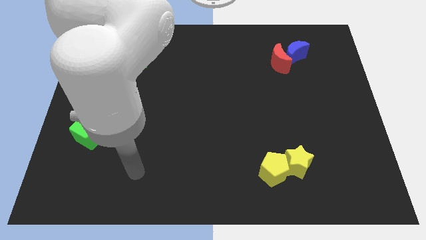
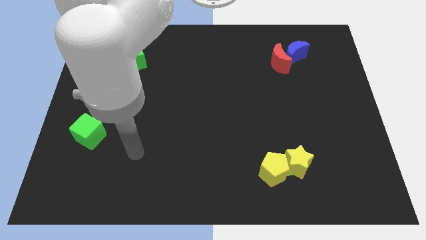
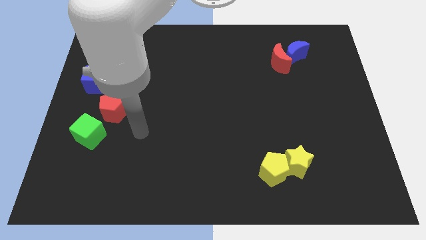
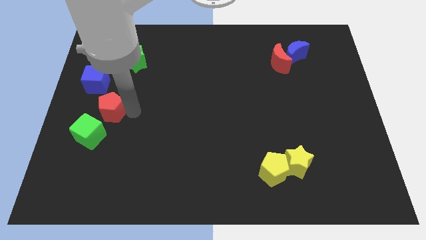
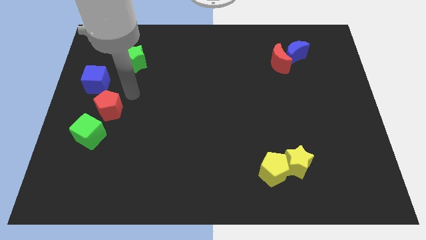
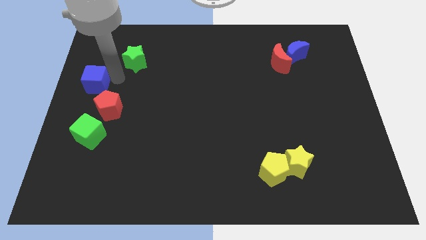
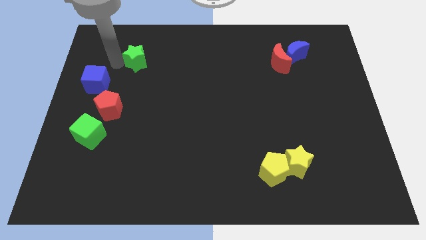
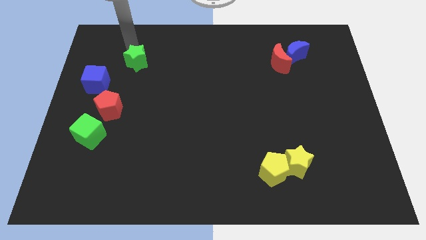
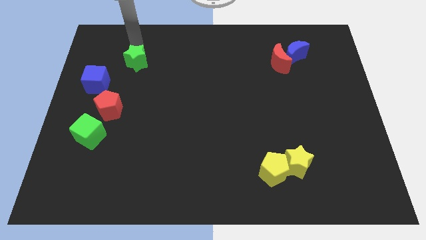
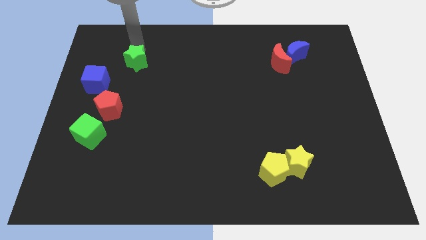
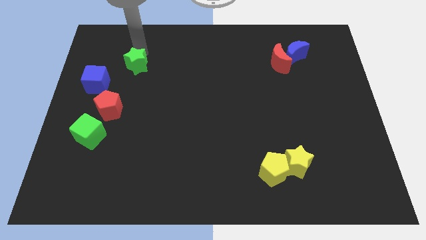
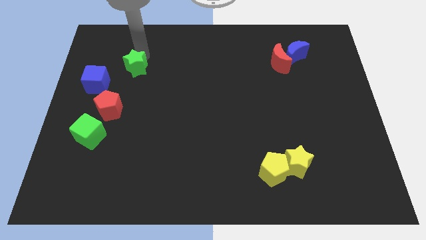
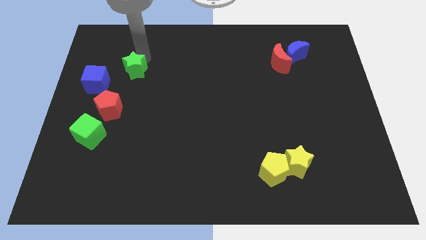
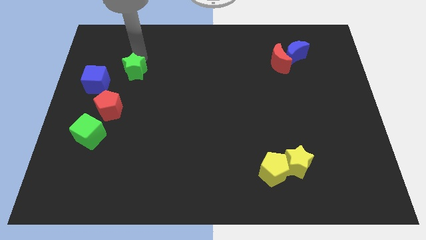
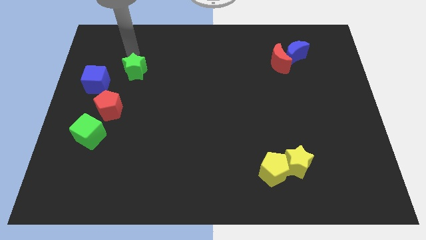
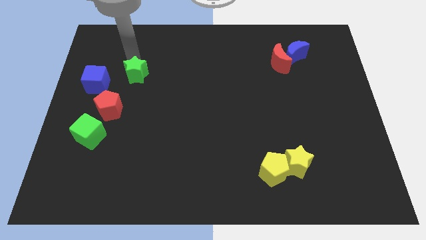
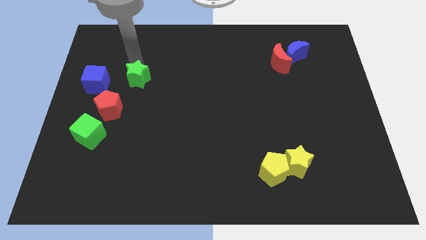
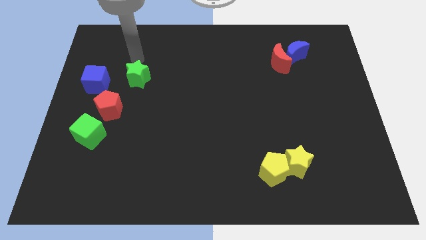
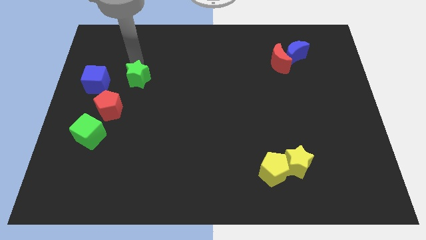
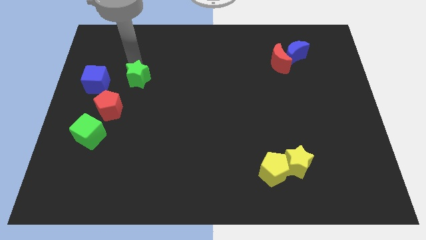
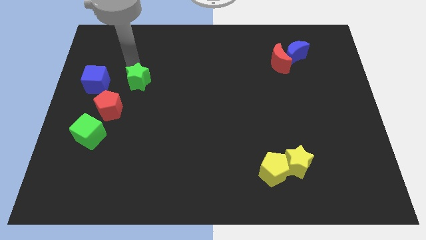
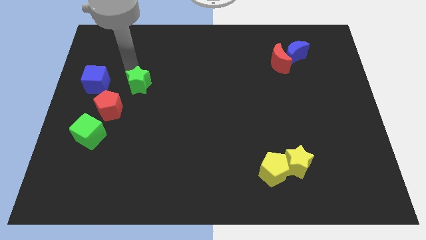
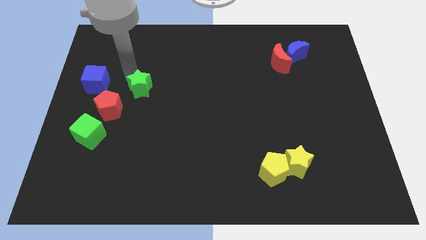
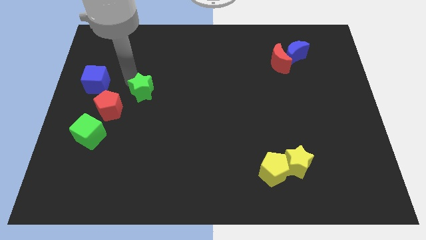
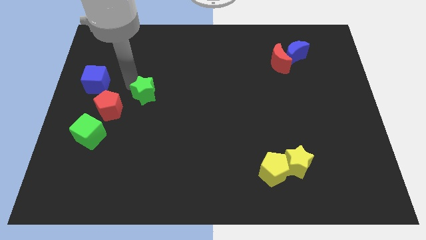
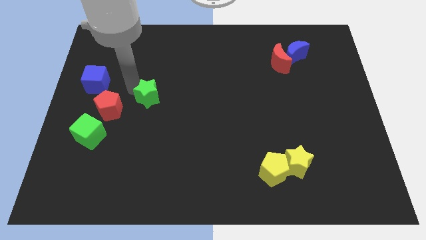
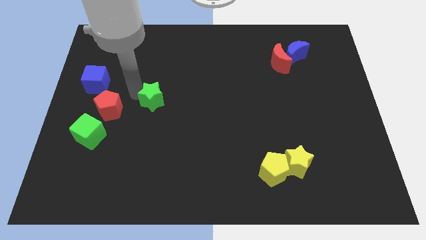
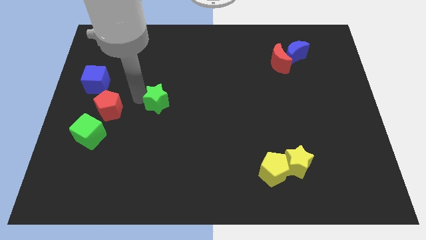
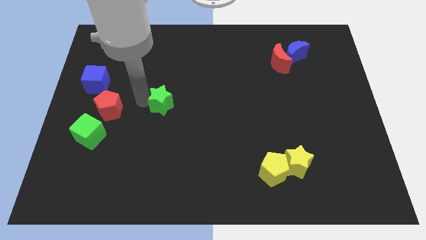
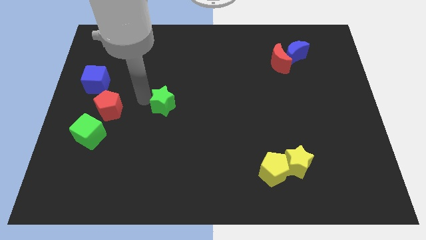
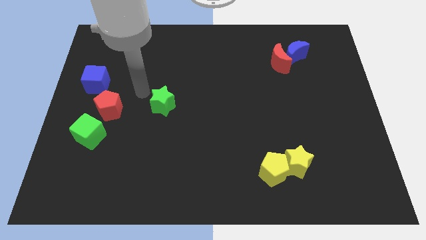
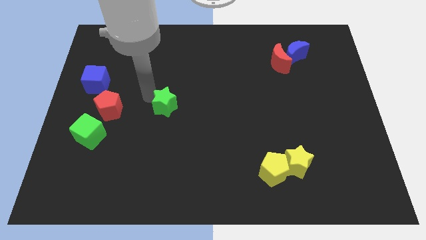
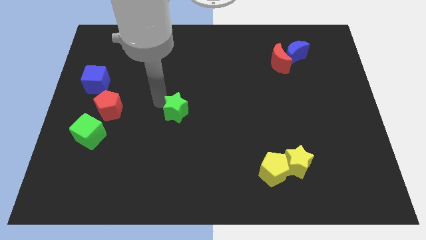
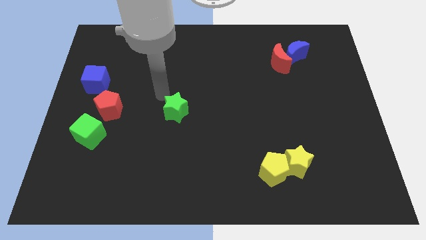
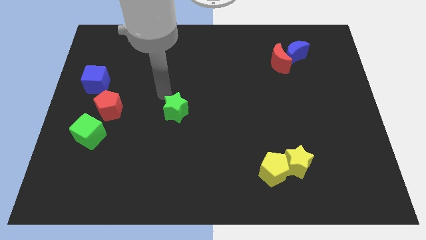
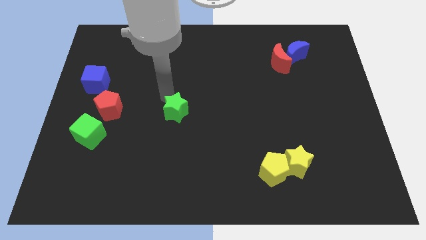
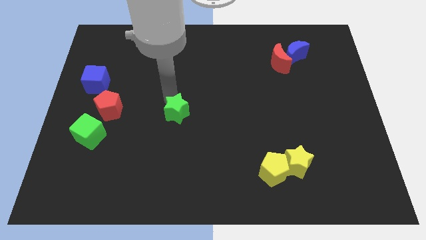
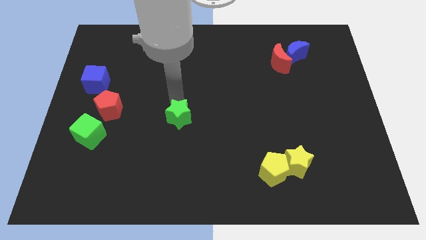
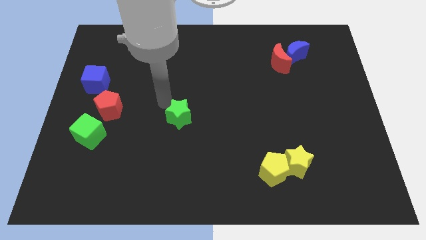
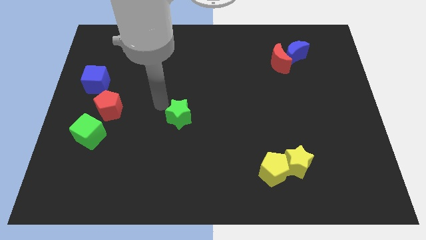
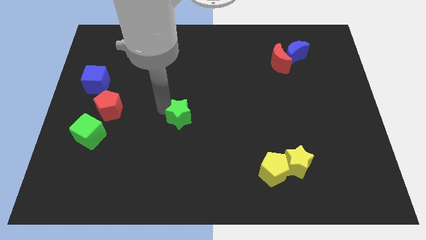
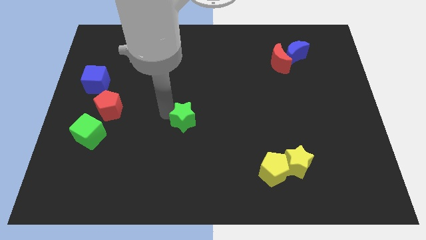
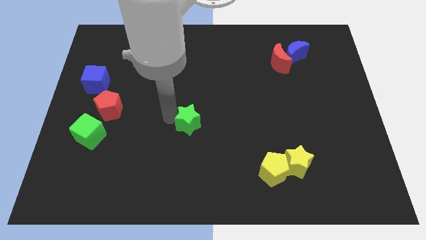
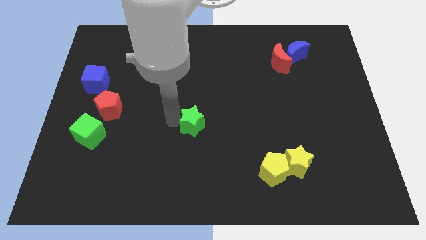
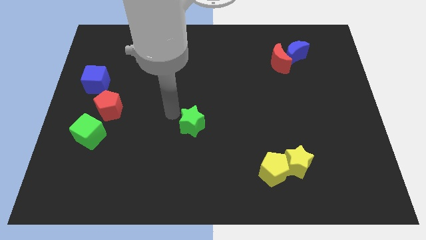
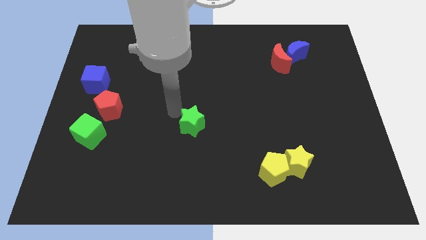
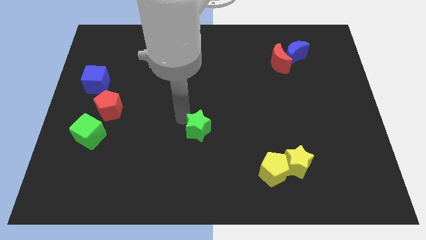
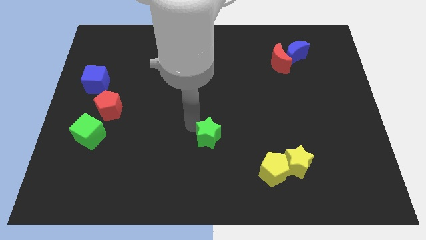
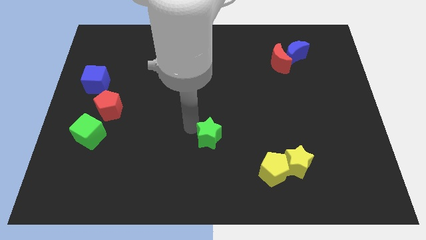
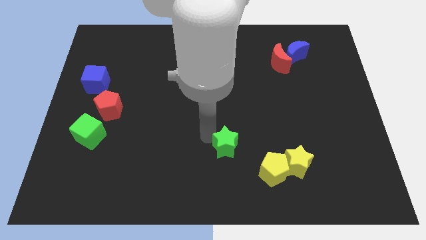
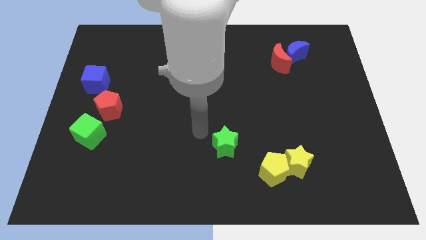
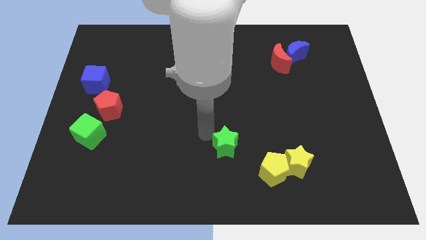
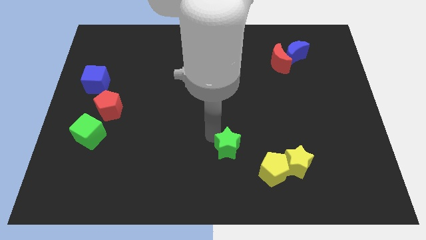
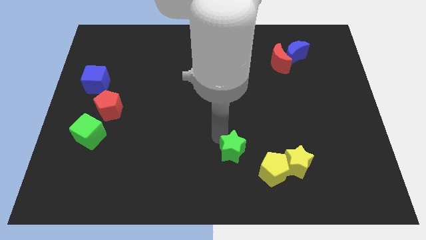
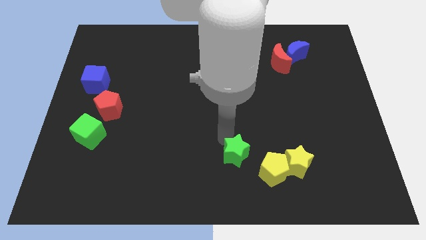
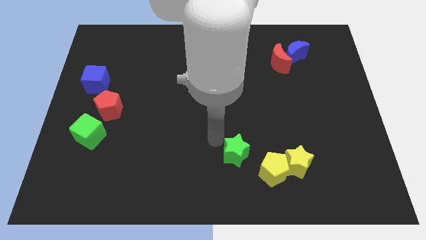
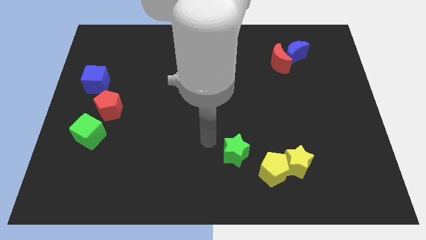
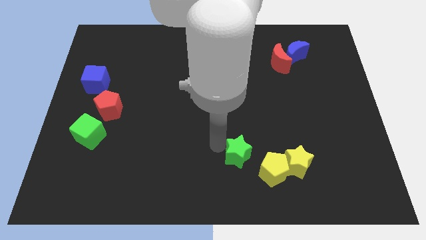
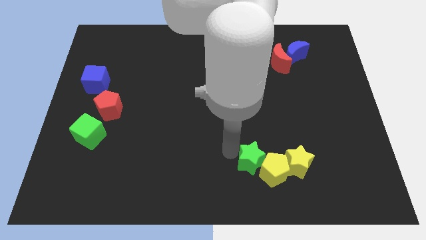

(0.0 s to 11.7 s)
push the green star to the yellow pentagon

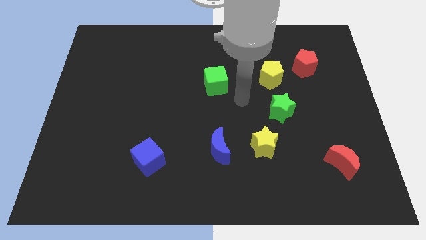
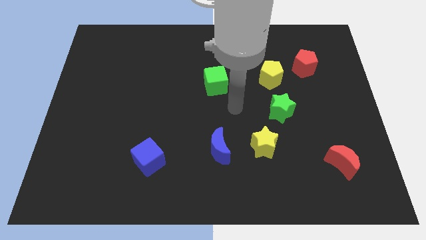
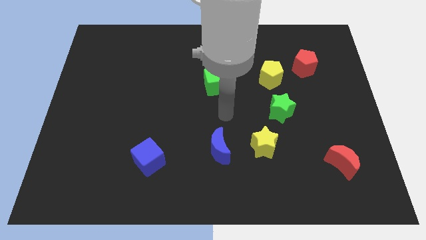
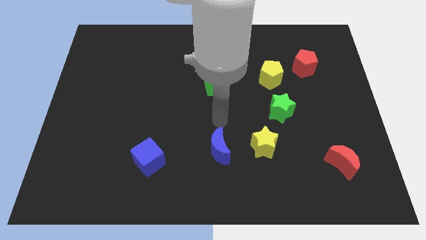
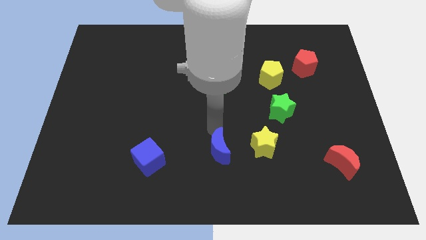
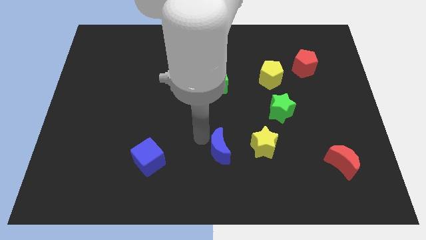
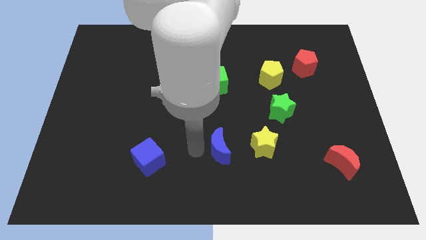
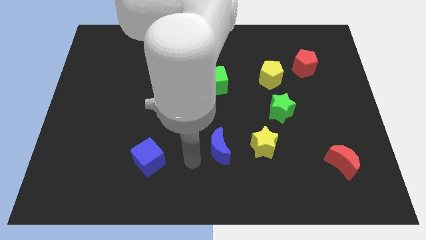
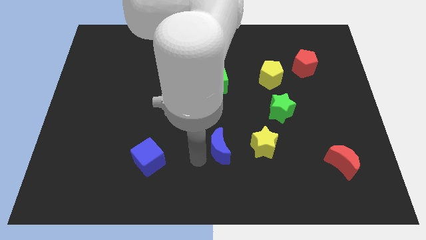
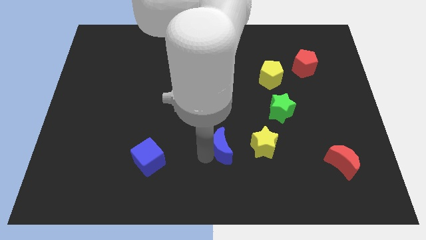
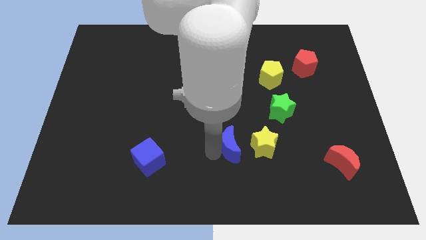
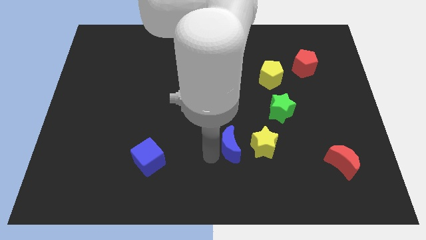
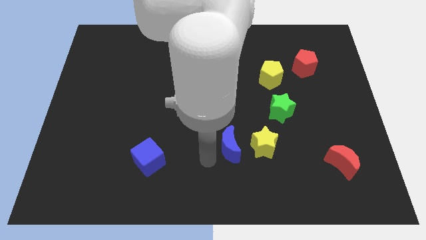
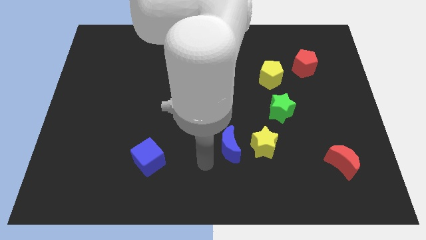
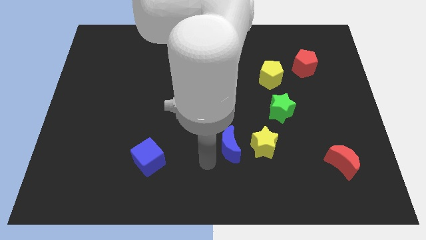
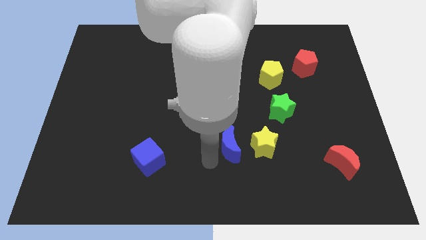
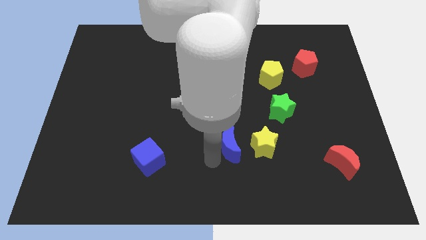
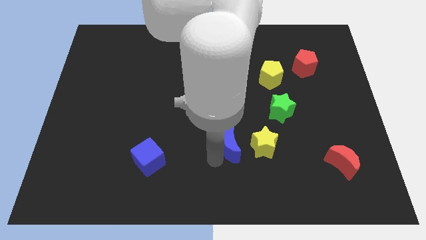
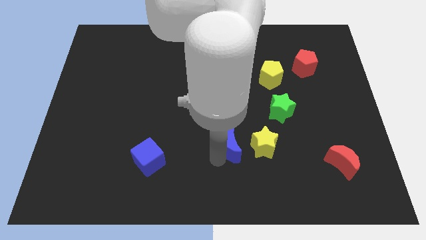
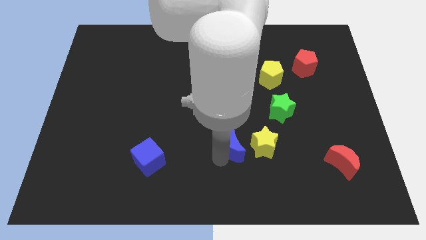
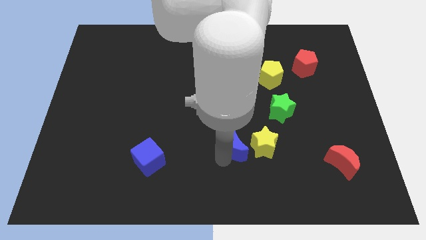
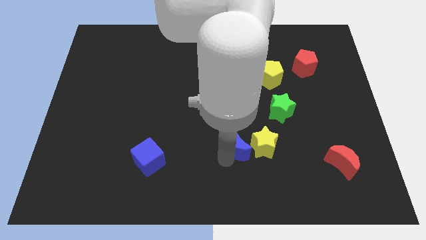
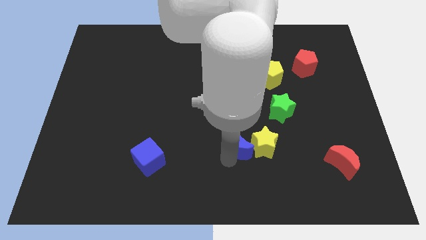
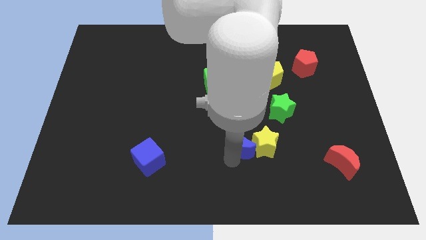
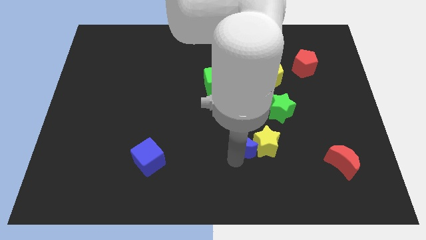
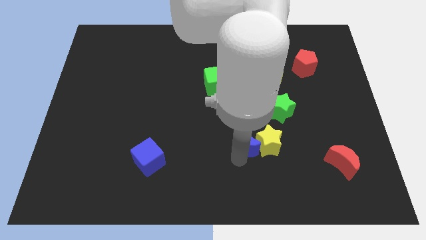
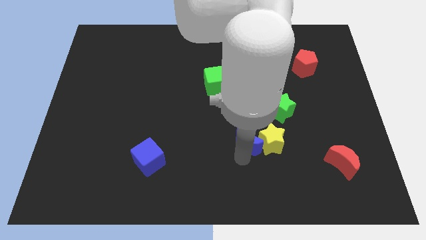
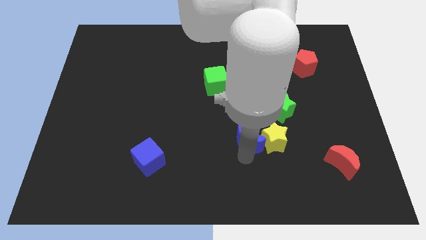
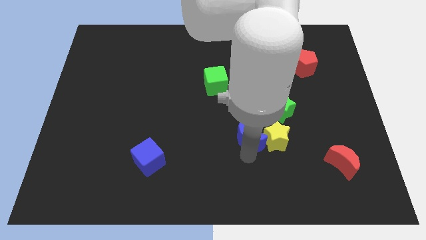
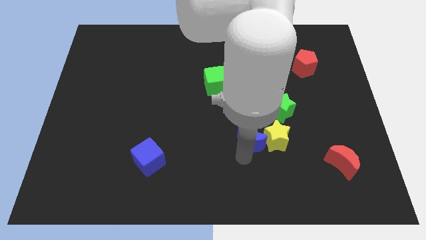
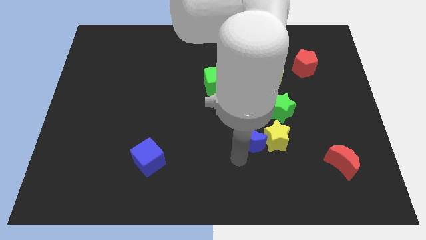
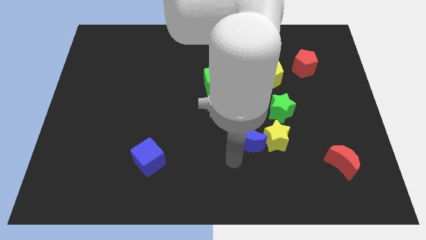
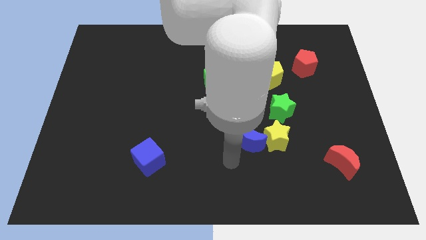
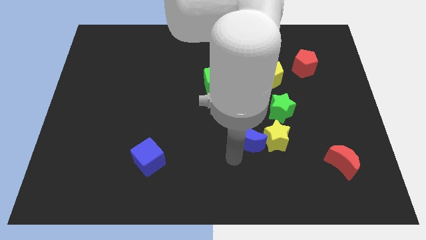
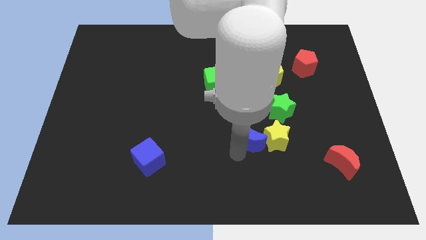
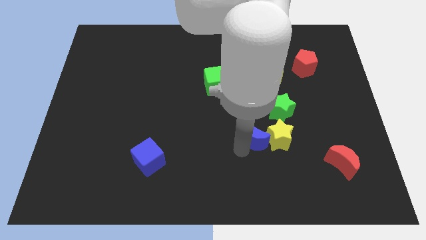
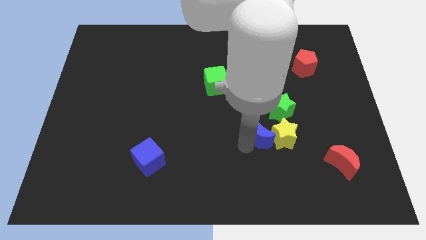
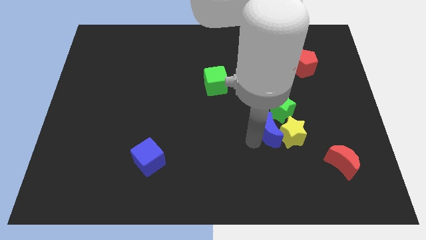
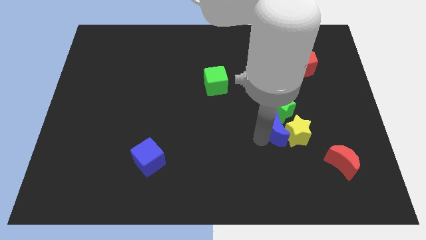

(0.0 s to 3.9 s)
push the blue moon close to the green star
